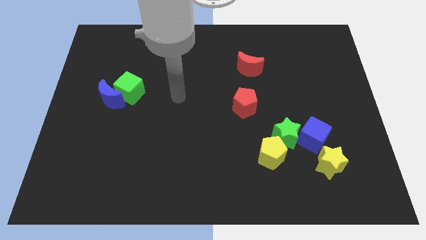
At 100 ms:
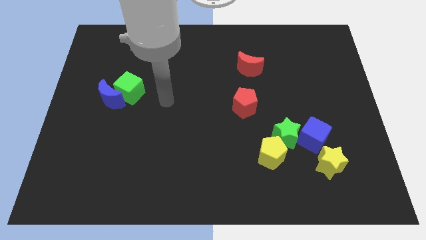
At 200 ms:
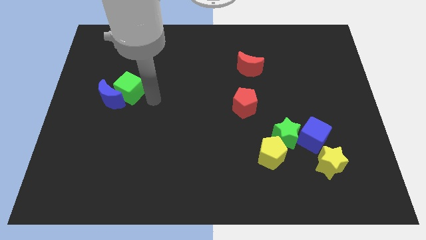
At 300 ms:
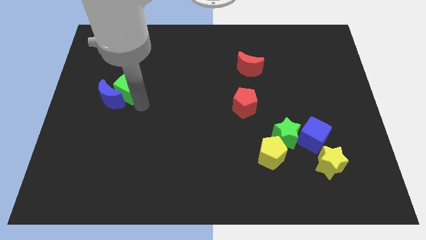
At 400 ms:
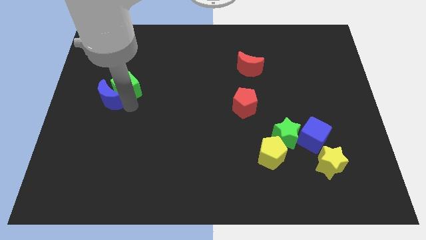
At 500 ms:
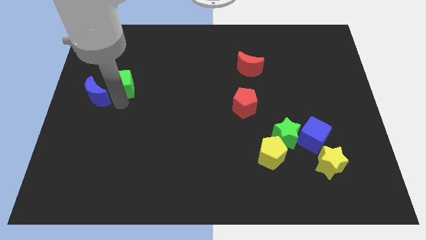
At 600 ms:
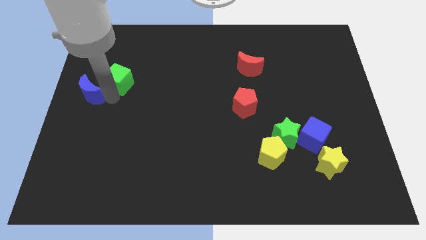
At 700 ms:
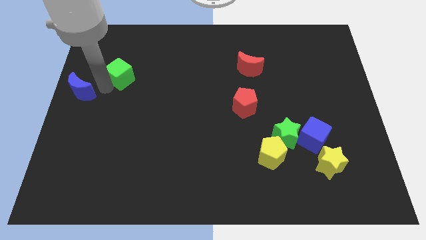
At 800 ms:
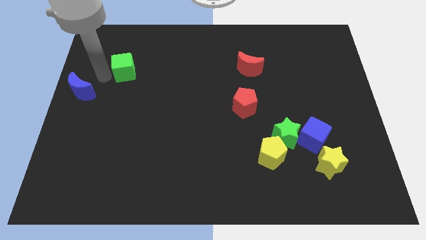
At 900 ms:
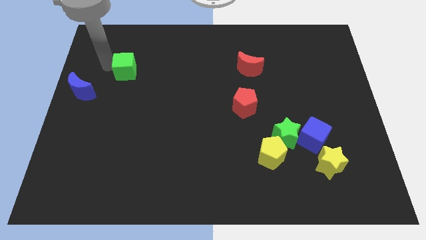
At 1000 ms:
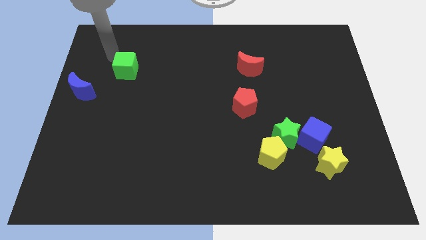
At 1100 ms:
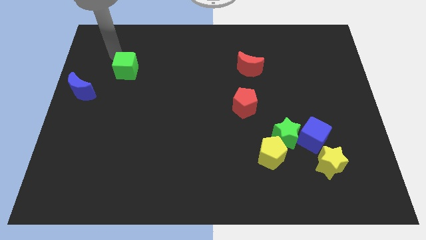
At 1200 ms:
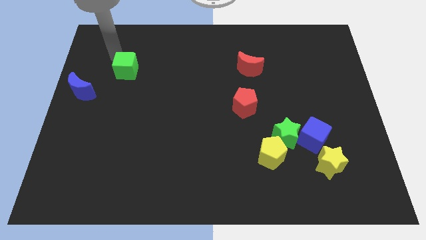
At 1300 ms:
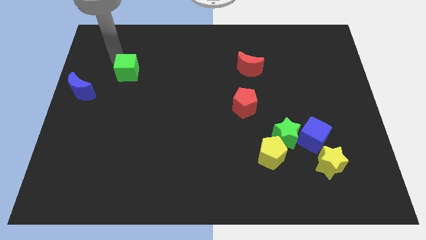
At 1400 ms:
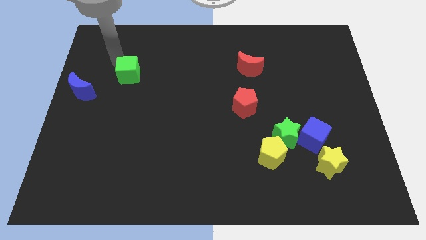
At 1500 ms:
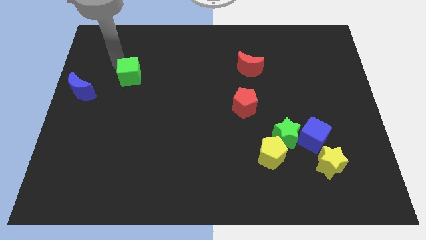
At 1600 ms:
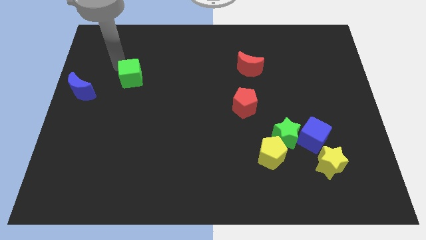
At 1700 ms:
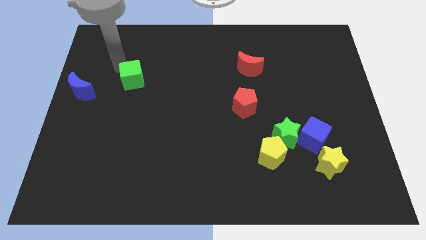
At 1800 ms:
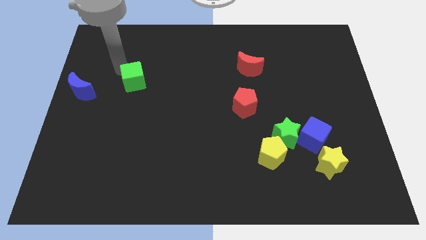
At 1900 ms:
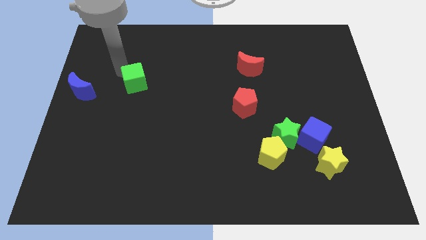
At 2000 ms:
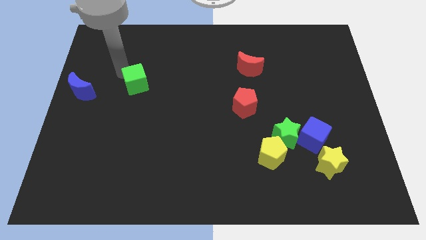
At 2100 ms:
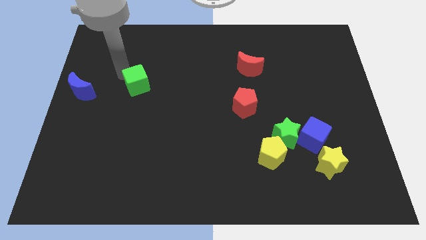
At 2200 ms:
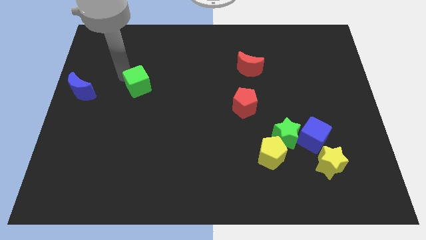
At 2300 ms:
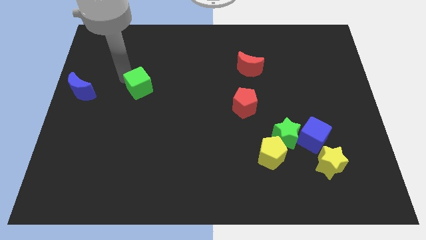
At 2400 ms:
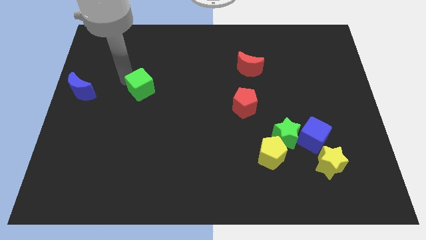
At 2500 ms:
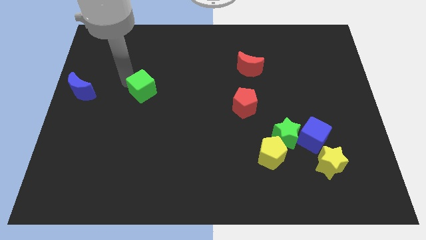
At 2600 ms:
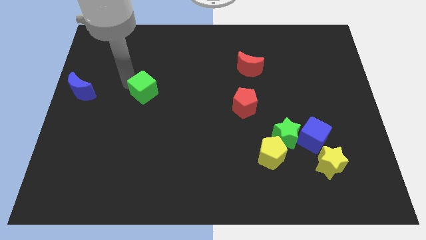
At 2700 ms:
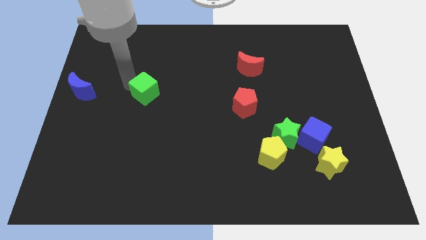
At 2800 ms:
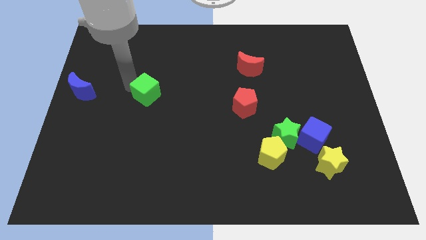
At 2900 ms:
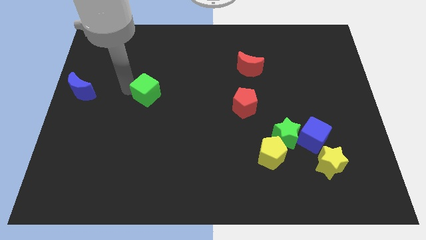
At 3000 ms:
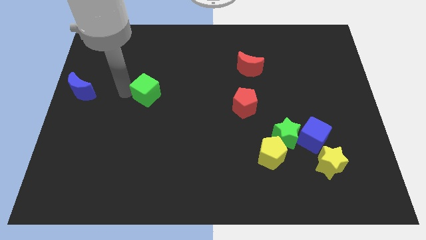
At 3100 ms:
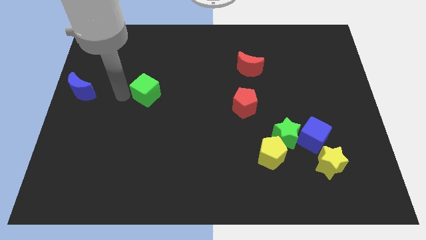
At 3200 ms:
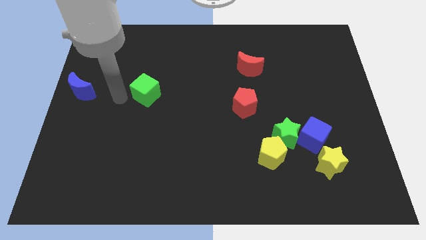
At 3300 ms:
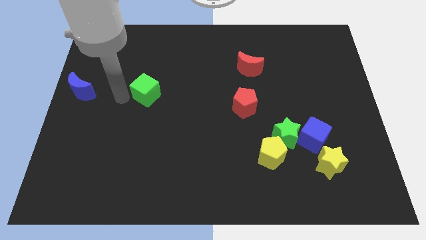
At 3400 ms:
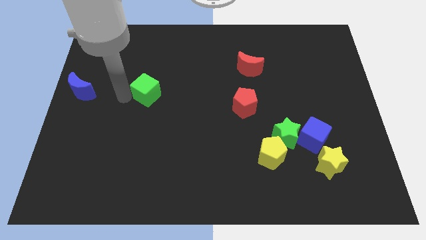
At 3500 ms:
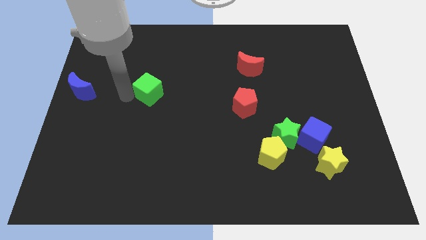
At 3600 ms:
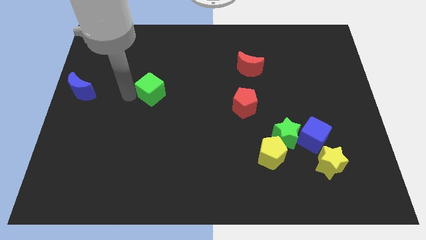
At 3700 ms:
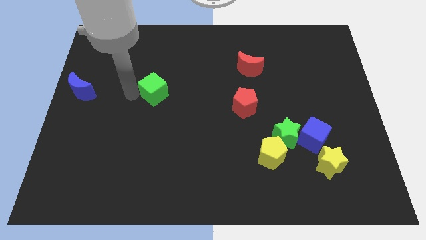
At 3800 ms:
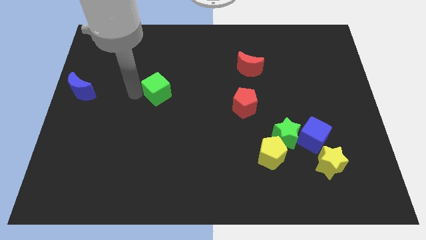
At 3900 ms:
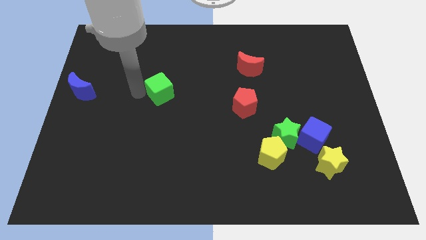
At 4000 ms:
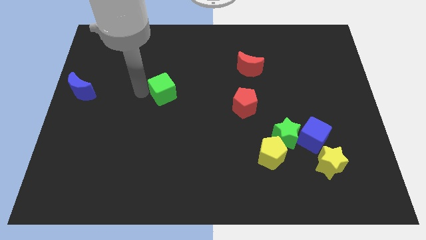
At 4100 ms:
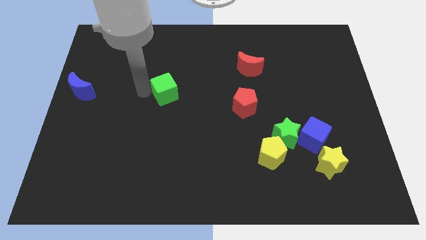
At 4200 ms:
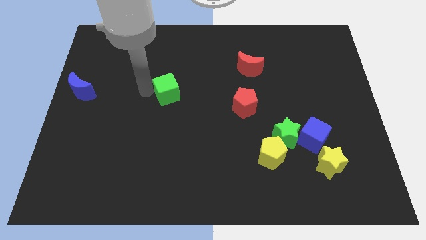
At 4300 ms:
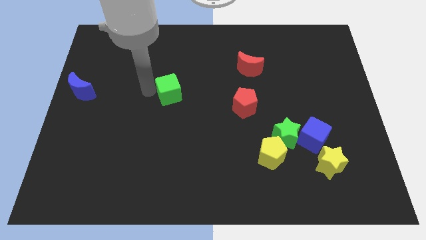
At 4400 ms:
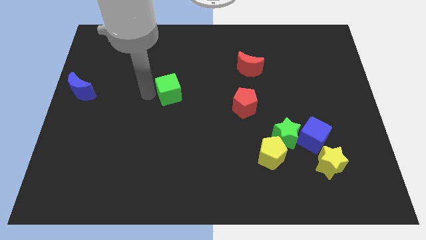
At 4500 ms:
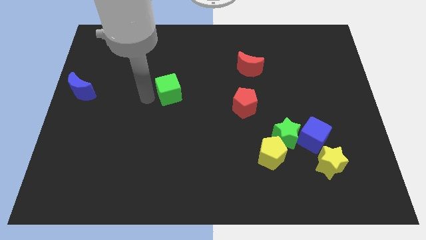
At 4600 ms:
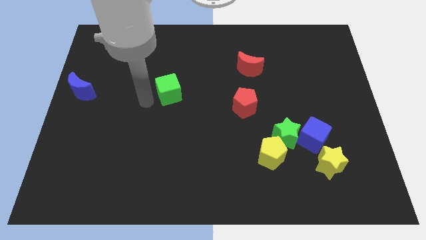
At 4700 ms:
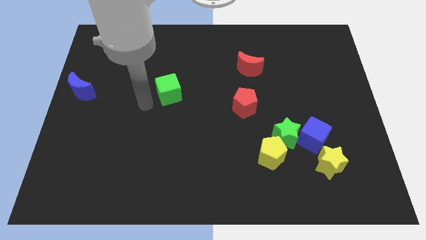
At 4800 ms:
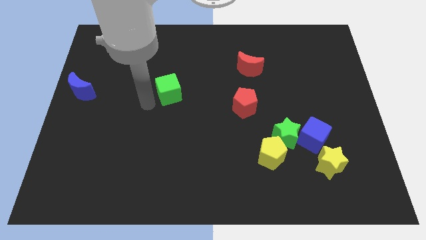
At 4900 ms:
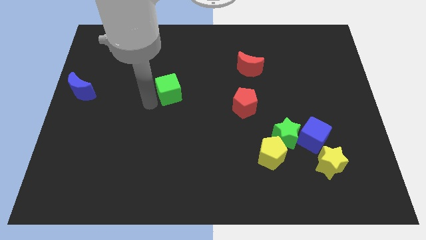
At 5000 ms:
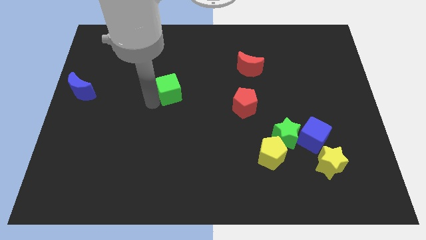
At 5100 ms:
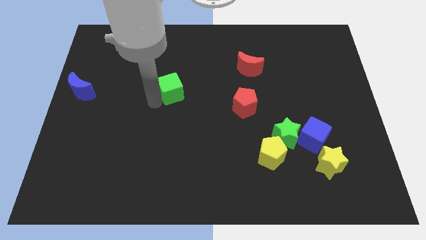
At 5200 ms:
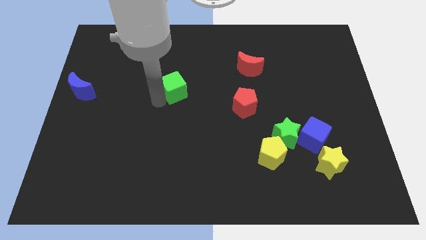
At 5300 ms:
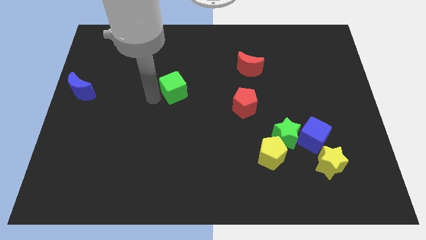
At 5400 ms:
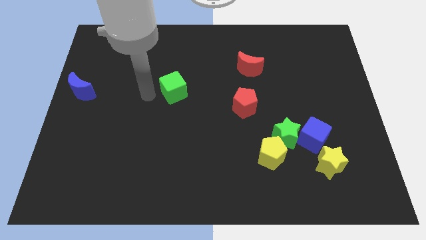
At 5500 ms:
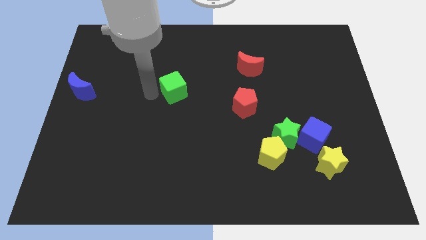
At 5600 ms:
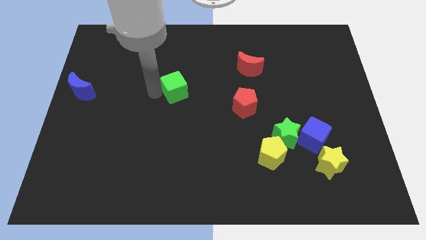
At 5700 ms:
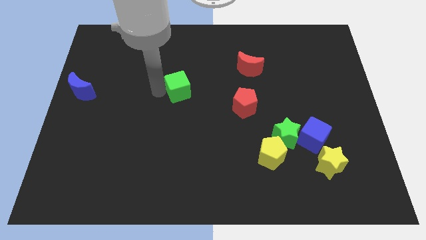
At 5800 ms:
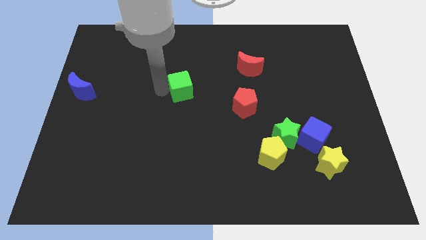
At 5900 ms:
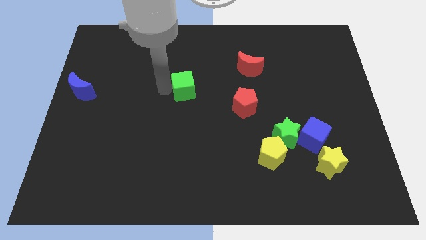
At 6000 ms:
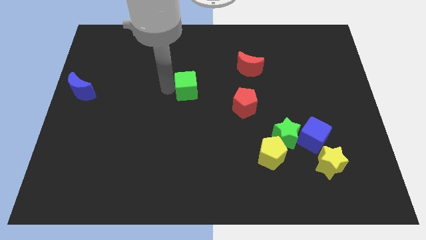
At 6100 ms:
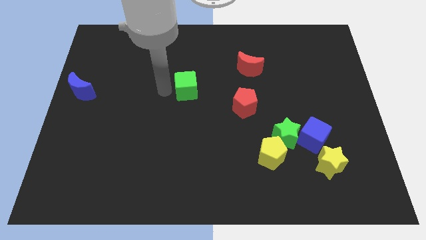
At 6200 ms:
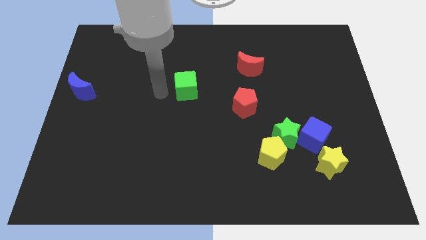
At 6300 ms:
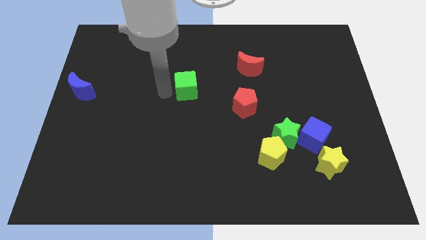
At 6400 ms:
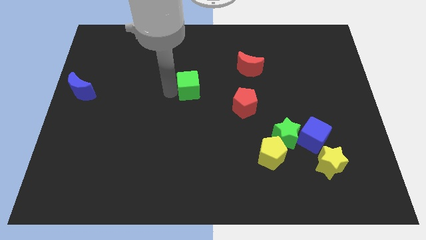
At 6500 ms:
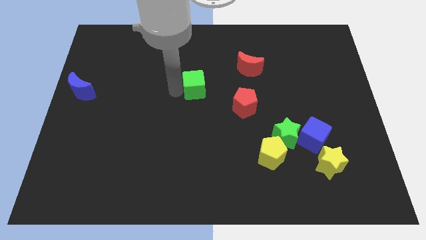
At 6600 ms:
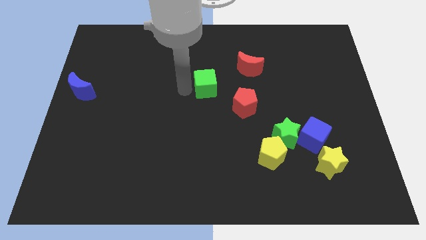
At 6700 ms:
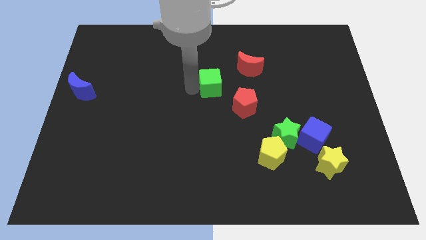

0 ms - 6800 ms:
move the green cube diagonally down and to the left of the red moon
